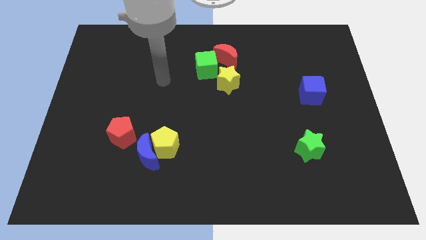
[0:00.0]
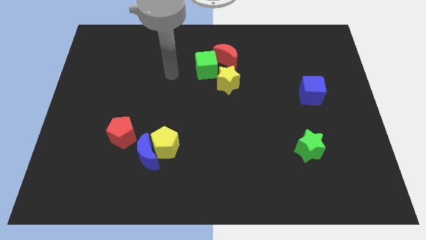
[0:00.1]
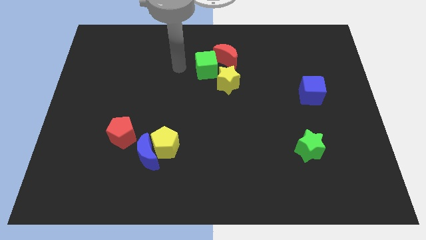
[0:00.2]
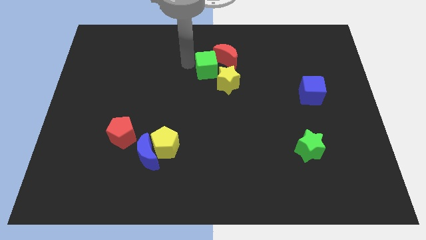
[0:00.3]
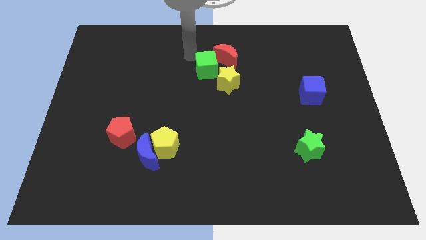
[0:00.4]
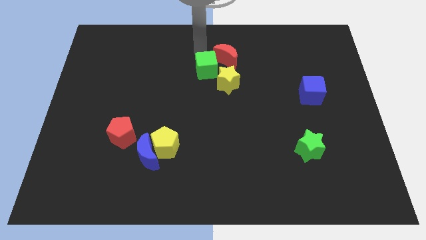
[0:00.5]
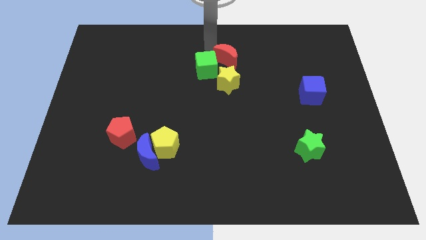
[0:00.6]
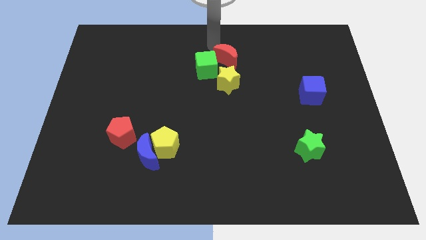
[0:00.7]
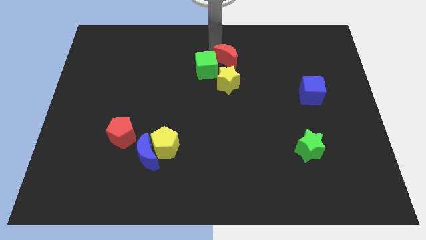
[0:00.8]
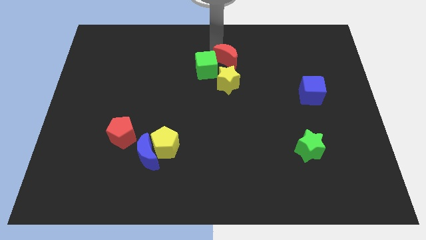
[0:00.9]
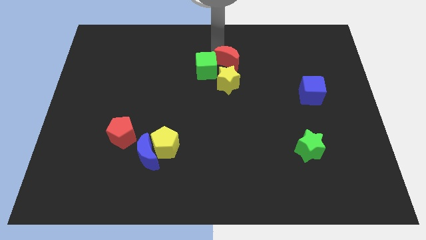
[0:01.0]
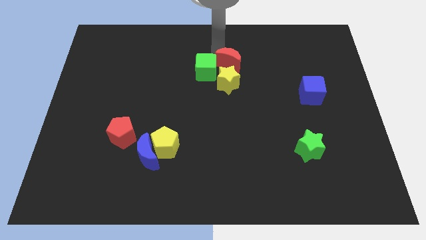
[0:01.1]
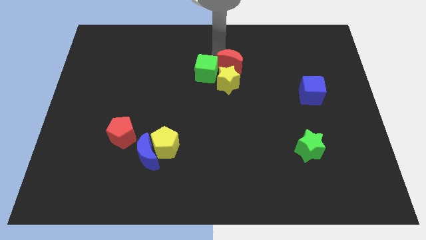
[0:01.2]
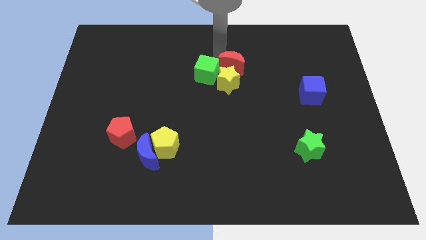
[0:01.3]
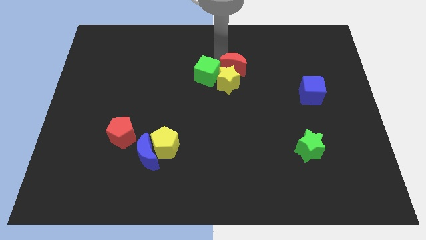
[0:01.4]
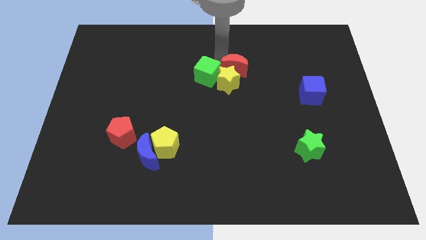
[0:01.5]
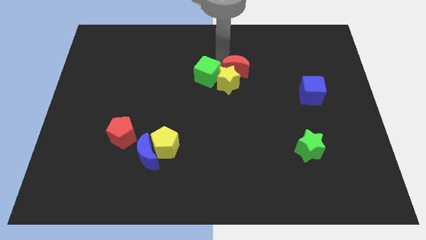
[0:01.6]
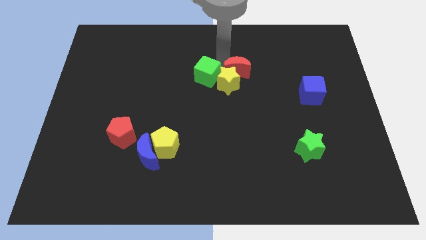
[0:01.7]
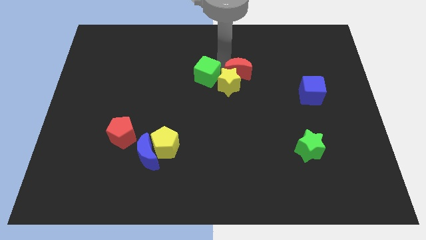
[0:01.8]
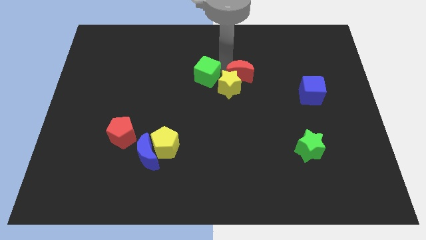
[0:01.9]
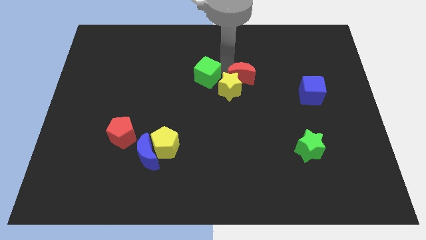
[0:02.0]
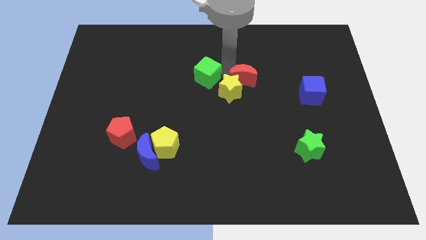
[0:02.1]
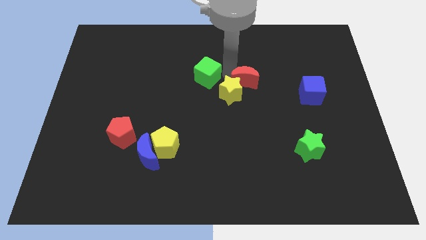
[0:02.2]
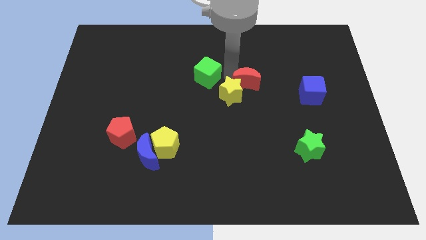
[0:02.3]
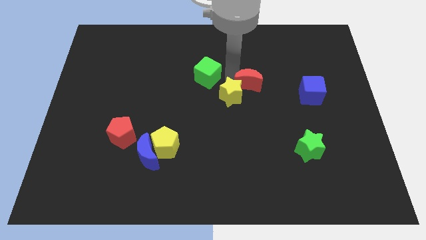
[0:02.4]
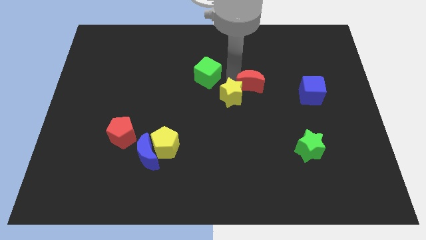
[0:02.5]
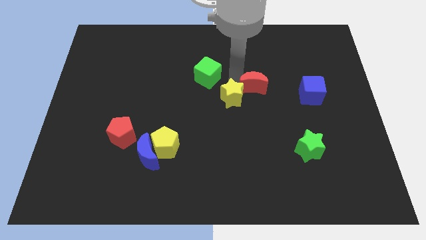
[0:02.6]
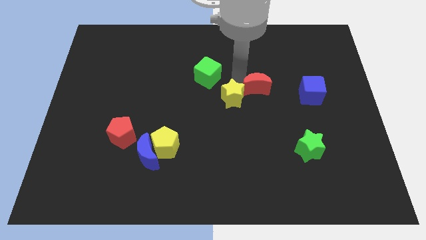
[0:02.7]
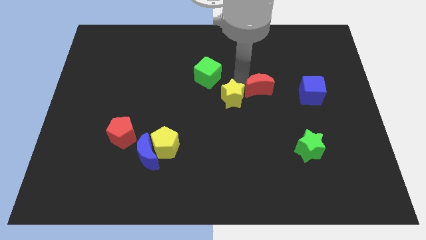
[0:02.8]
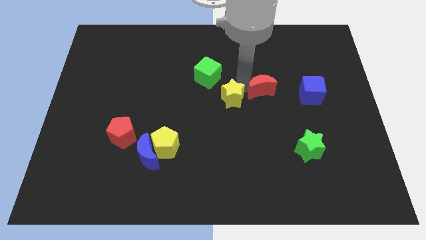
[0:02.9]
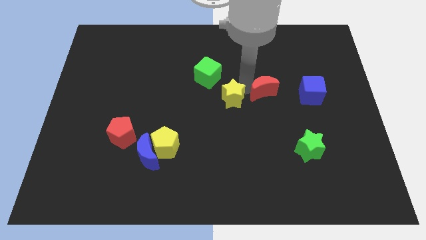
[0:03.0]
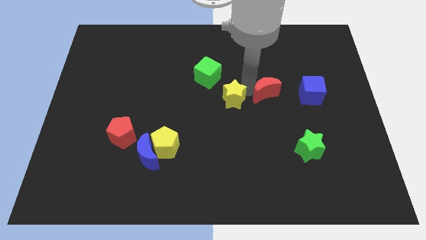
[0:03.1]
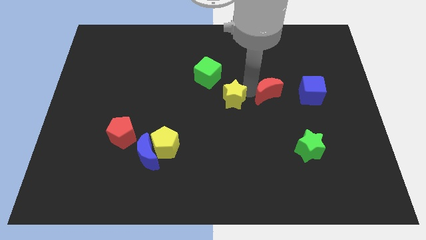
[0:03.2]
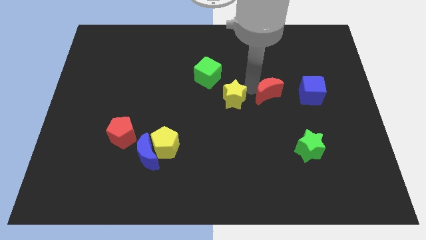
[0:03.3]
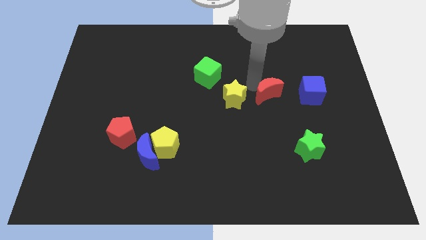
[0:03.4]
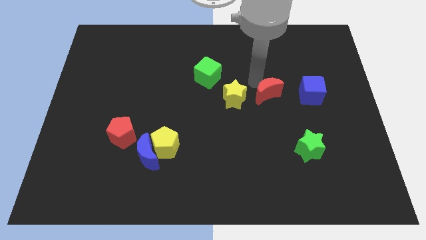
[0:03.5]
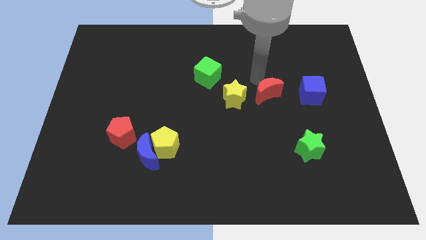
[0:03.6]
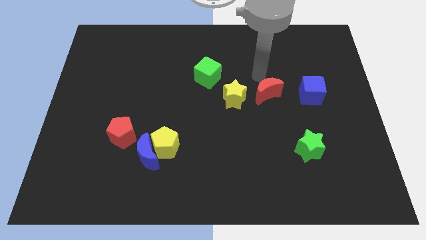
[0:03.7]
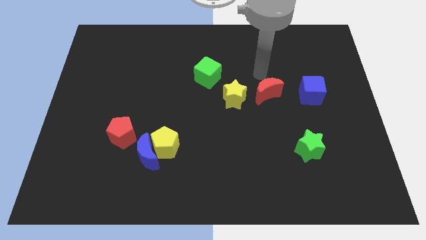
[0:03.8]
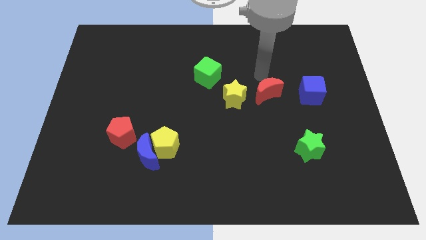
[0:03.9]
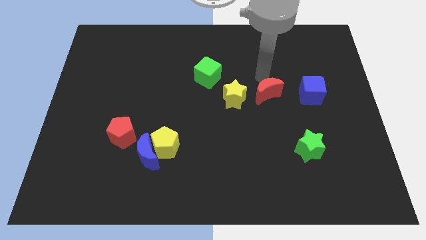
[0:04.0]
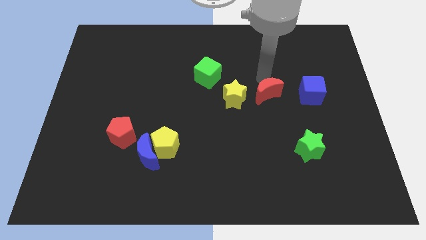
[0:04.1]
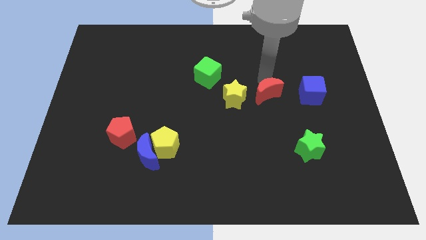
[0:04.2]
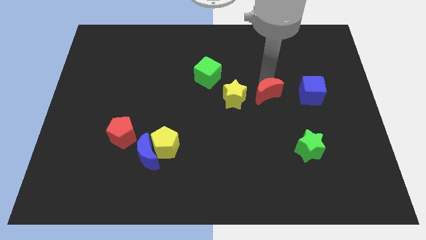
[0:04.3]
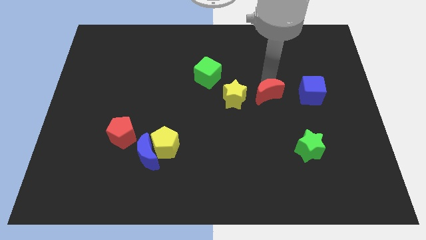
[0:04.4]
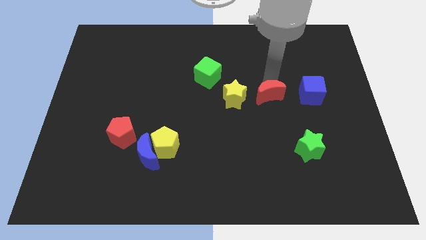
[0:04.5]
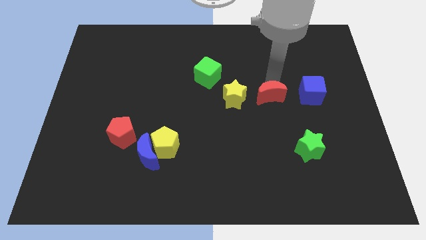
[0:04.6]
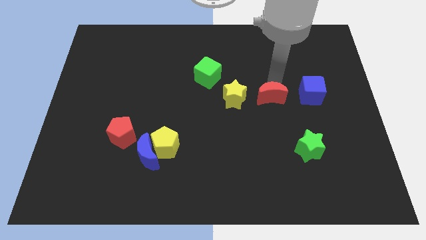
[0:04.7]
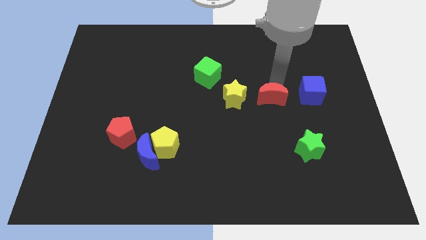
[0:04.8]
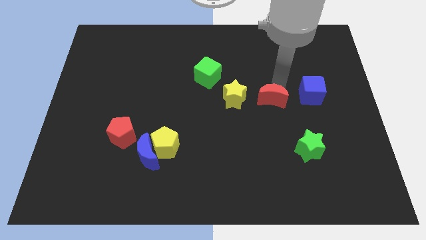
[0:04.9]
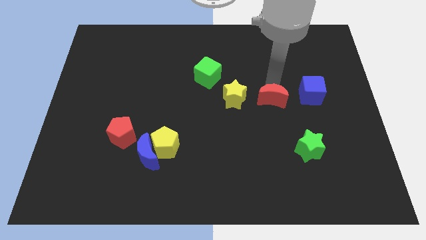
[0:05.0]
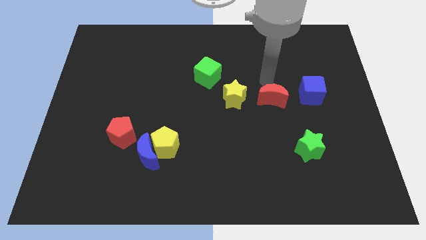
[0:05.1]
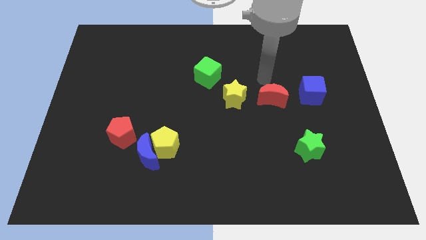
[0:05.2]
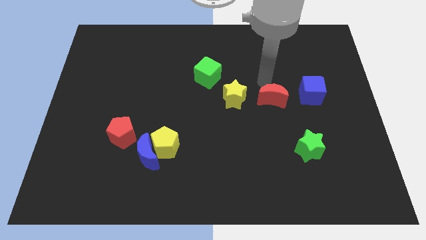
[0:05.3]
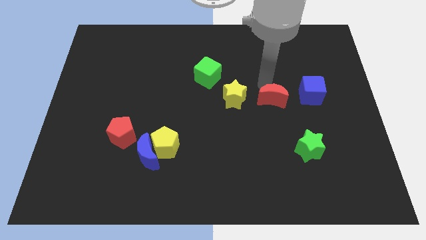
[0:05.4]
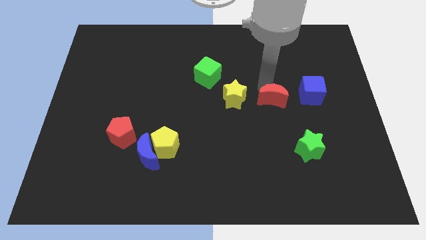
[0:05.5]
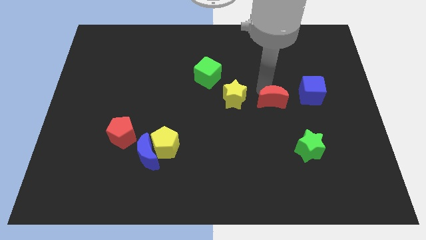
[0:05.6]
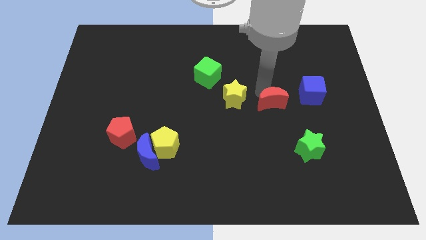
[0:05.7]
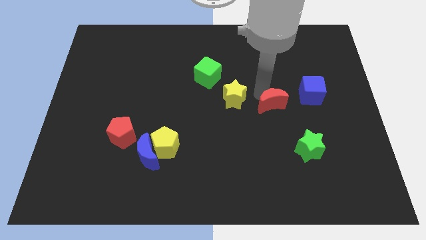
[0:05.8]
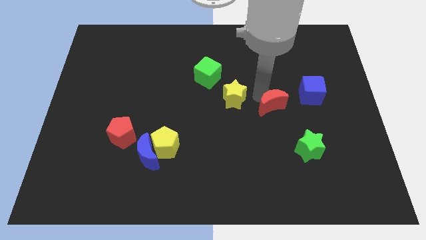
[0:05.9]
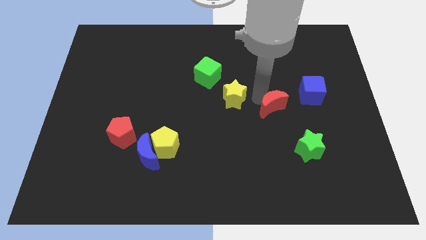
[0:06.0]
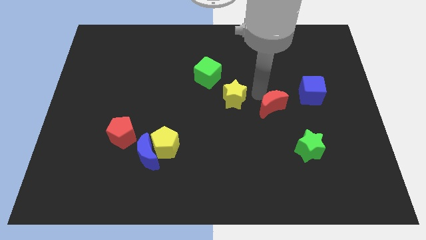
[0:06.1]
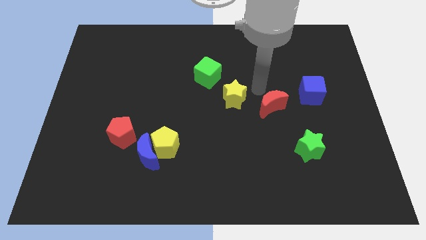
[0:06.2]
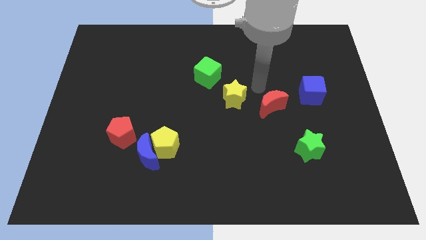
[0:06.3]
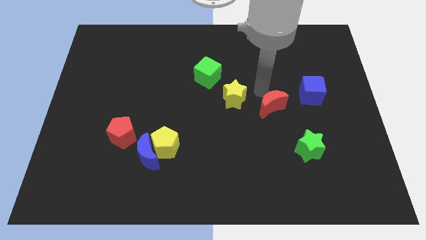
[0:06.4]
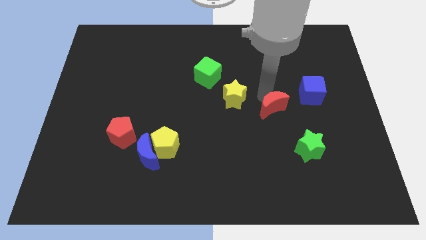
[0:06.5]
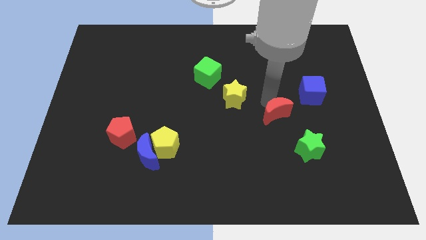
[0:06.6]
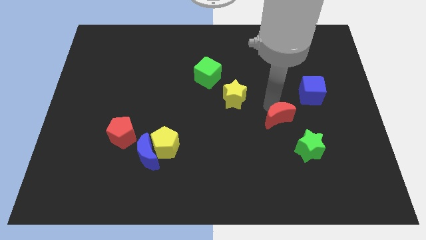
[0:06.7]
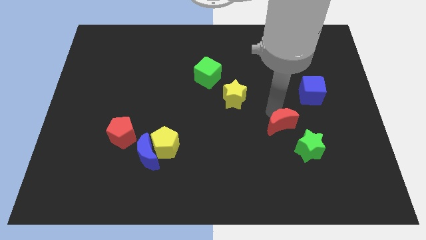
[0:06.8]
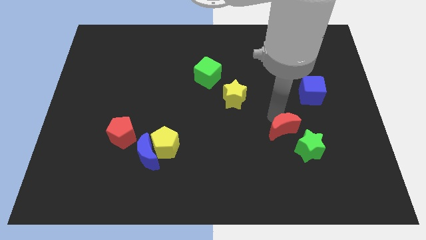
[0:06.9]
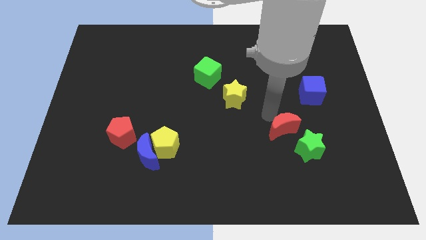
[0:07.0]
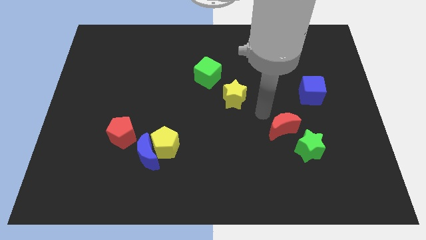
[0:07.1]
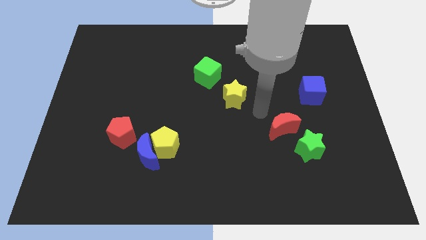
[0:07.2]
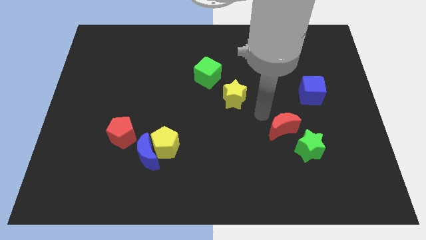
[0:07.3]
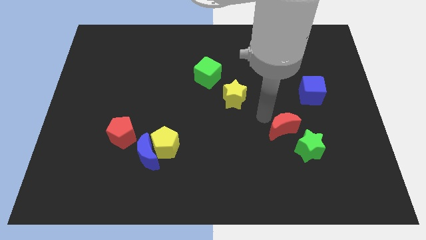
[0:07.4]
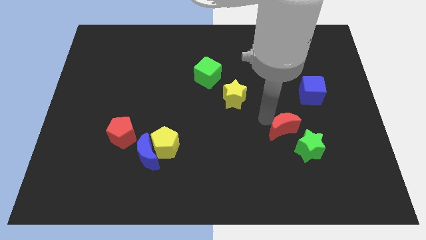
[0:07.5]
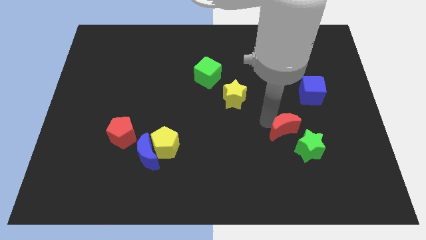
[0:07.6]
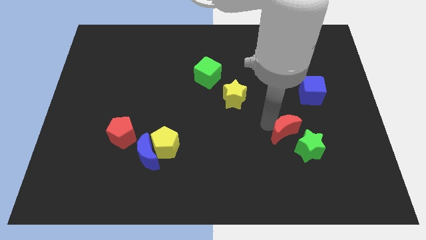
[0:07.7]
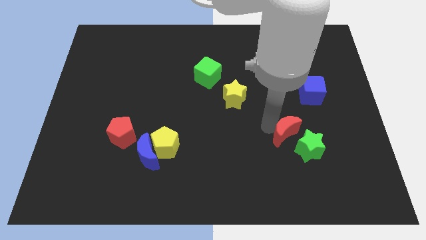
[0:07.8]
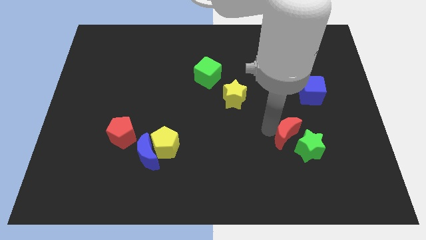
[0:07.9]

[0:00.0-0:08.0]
slide the red moon close to the green star
